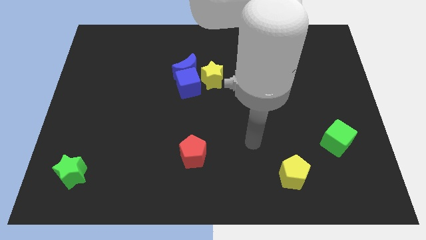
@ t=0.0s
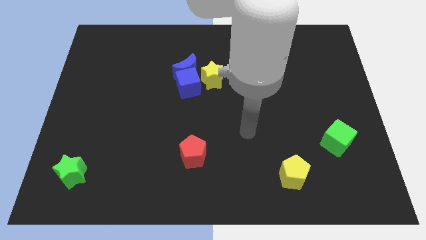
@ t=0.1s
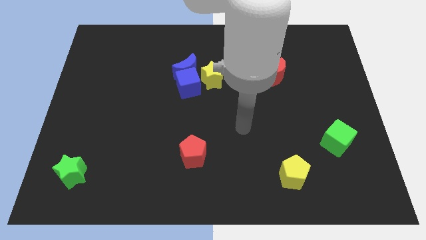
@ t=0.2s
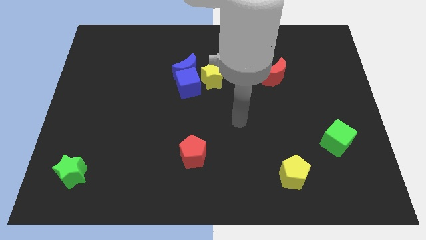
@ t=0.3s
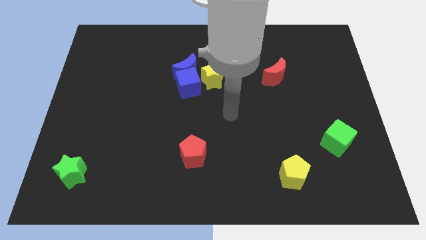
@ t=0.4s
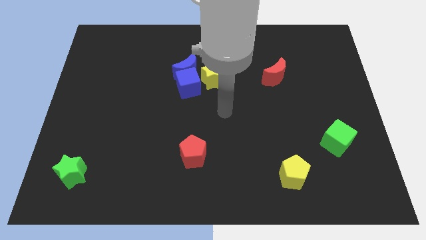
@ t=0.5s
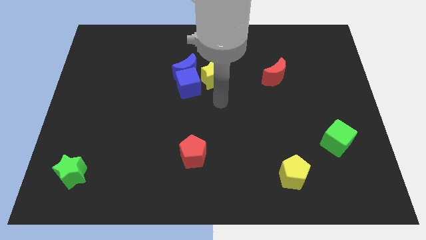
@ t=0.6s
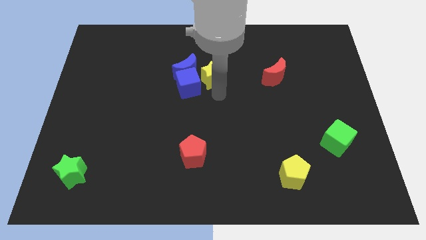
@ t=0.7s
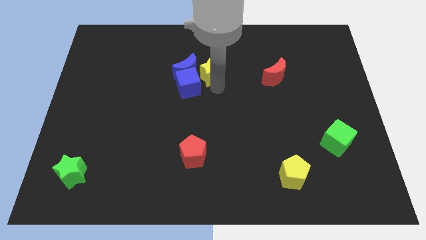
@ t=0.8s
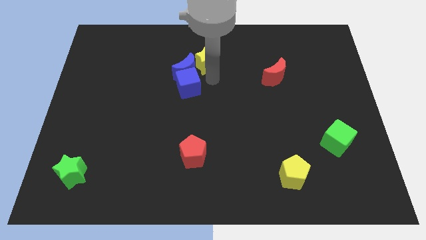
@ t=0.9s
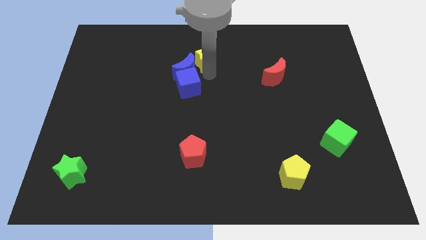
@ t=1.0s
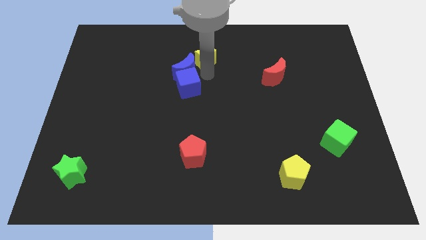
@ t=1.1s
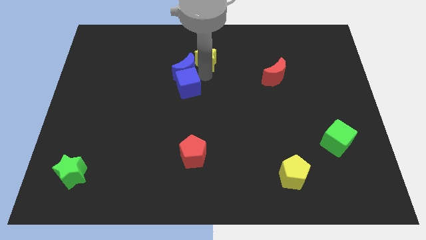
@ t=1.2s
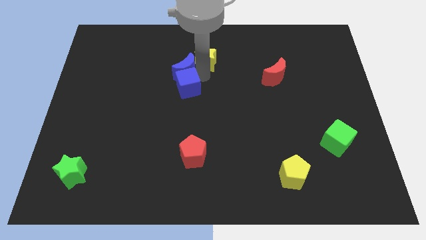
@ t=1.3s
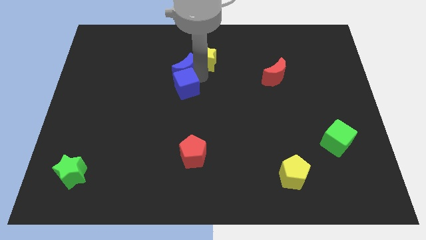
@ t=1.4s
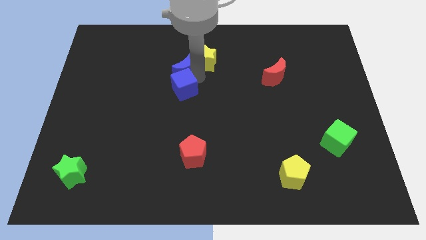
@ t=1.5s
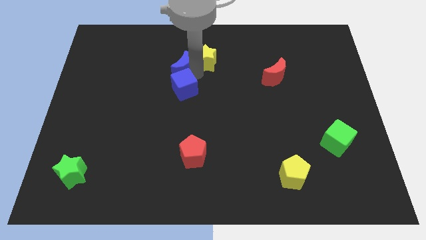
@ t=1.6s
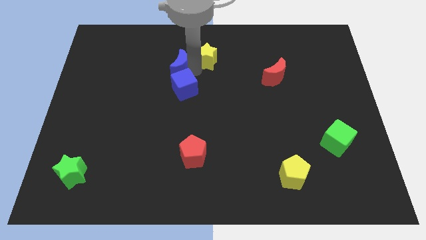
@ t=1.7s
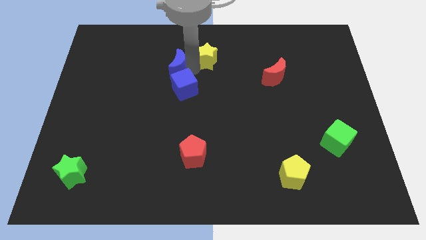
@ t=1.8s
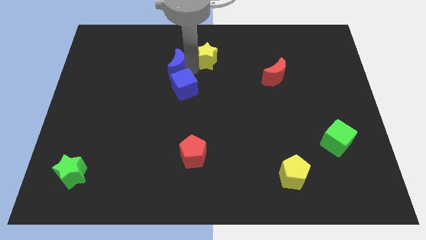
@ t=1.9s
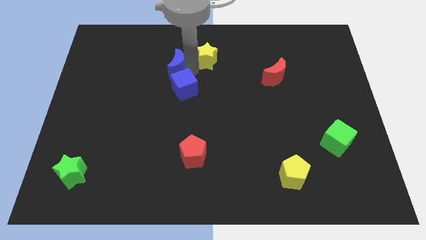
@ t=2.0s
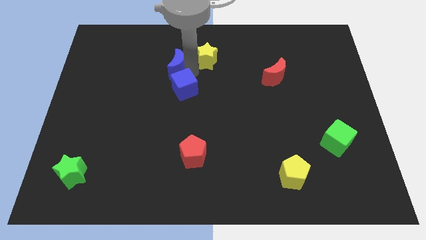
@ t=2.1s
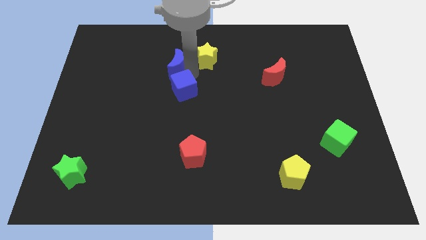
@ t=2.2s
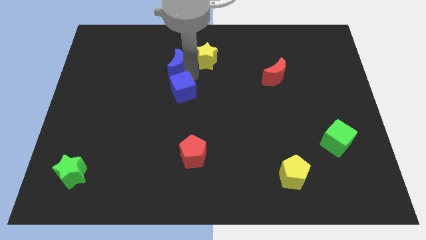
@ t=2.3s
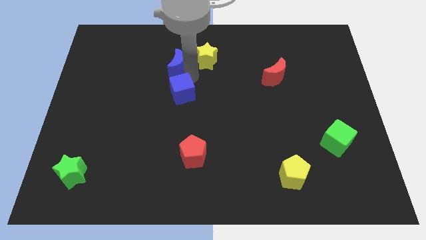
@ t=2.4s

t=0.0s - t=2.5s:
pull the blue cube apart from the blue moon and yellow star

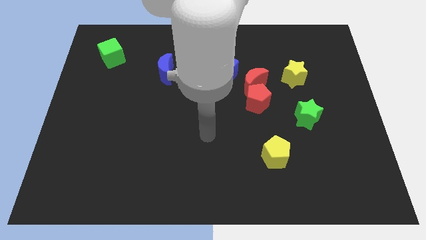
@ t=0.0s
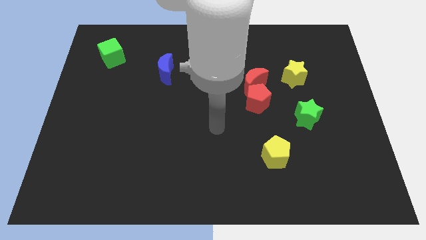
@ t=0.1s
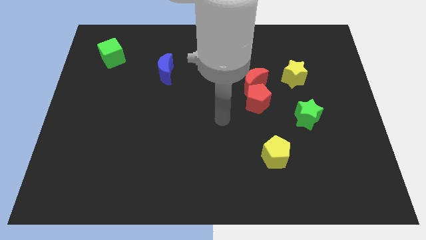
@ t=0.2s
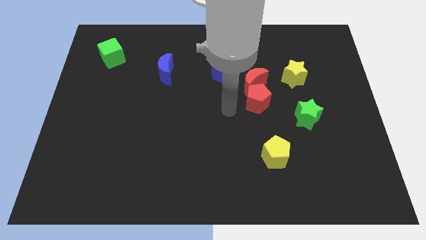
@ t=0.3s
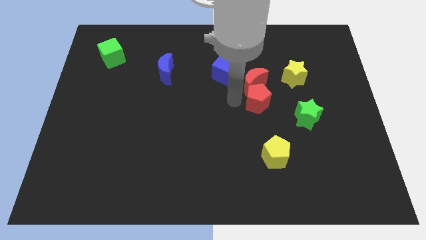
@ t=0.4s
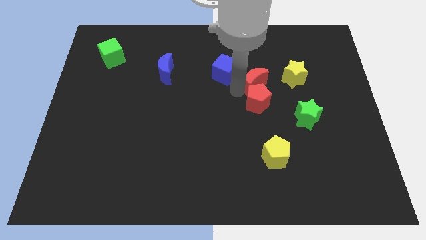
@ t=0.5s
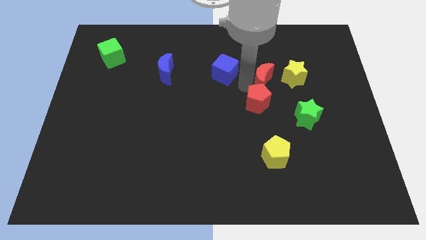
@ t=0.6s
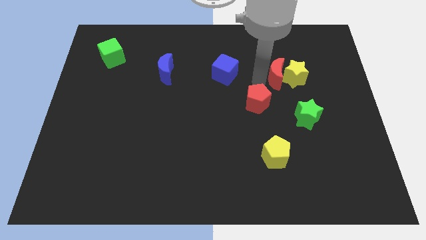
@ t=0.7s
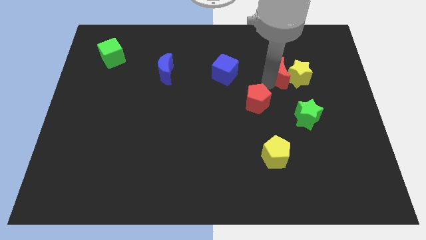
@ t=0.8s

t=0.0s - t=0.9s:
move the red pentagon away from the red moon

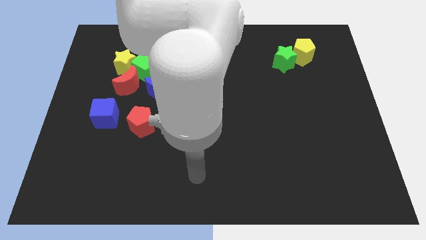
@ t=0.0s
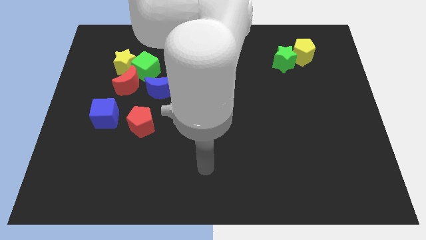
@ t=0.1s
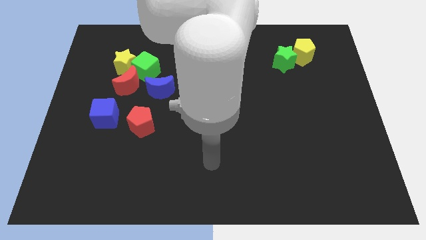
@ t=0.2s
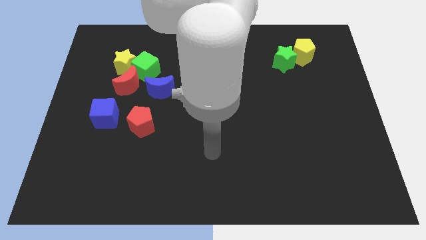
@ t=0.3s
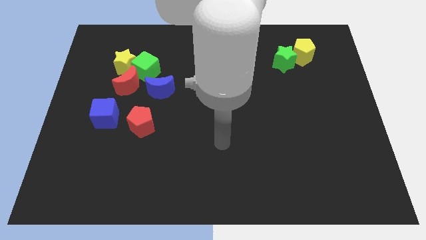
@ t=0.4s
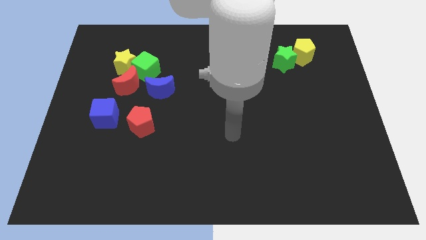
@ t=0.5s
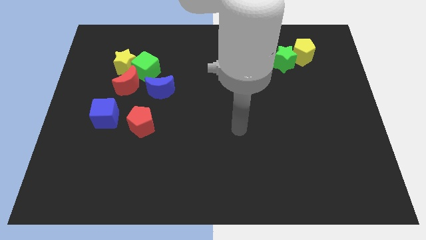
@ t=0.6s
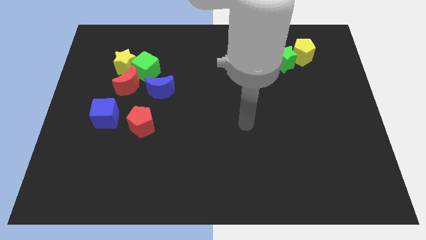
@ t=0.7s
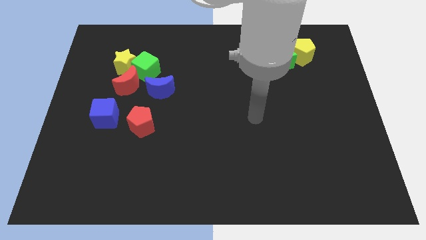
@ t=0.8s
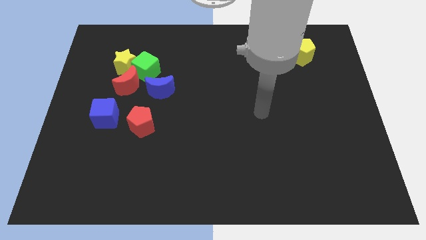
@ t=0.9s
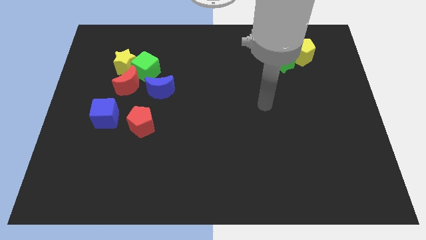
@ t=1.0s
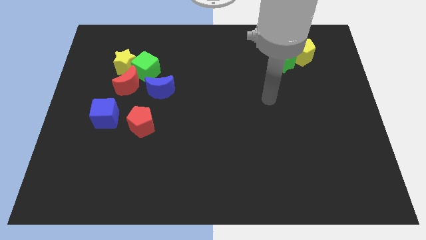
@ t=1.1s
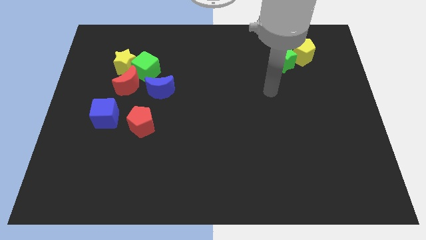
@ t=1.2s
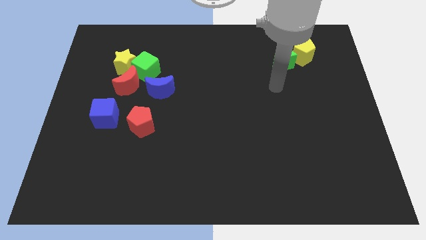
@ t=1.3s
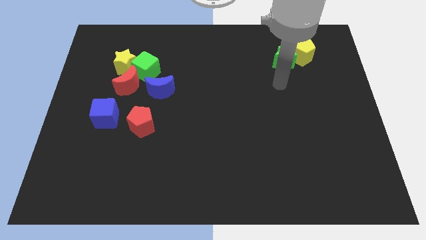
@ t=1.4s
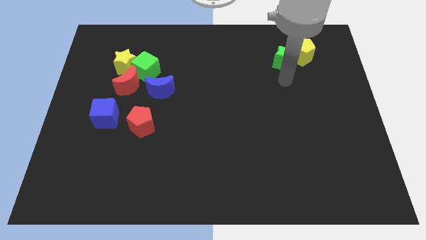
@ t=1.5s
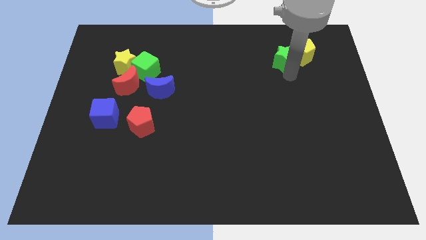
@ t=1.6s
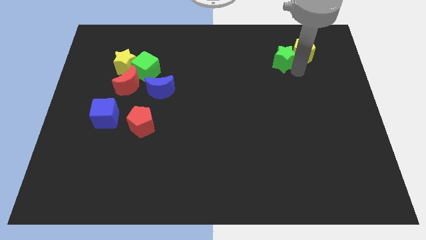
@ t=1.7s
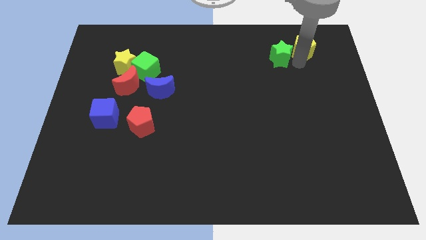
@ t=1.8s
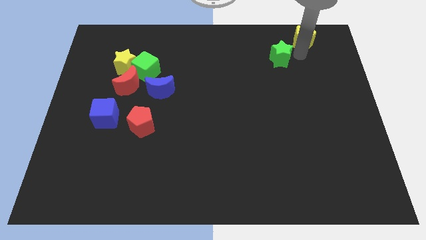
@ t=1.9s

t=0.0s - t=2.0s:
separate the green star from the yellow pentagon

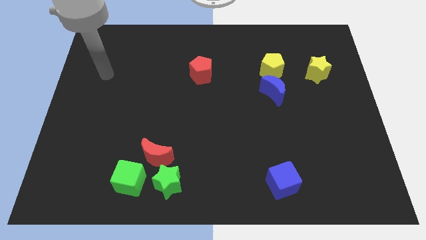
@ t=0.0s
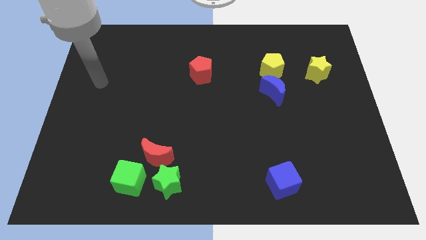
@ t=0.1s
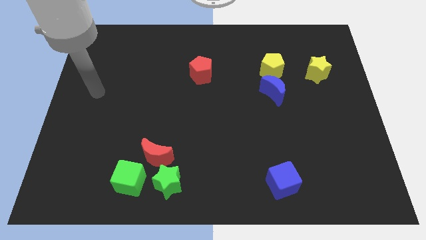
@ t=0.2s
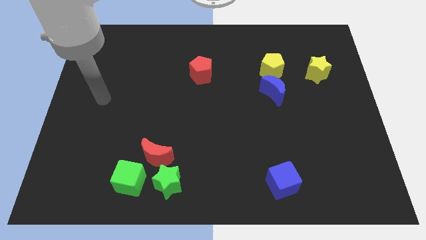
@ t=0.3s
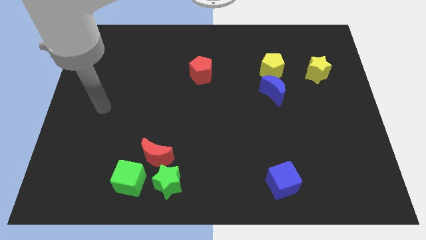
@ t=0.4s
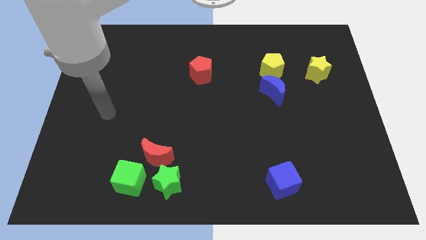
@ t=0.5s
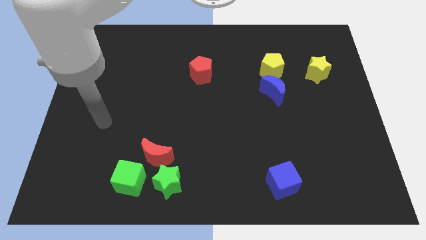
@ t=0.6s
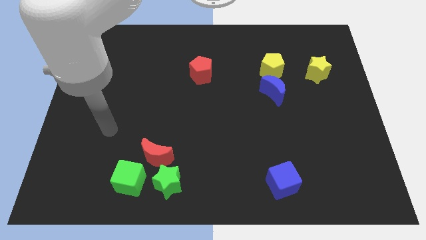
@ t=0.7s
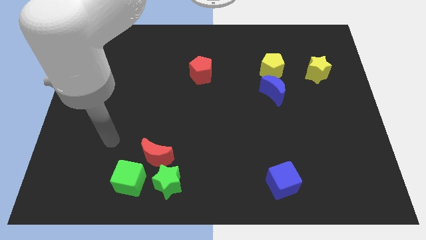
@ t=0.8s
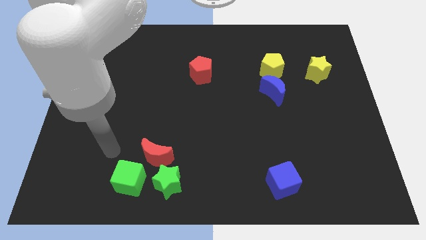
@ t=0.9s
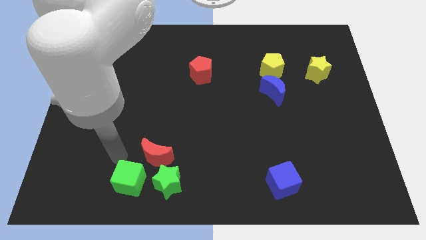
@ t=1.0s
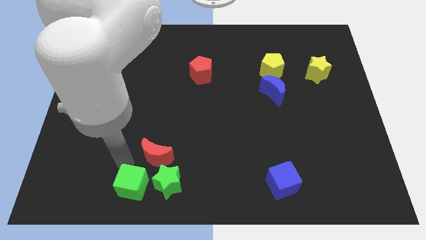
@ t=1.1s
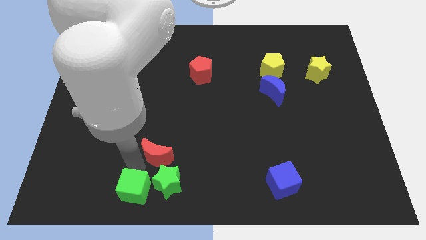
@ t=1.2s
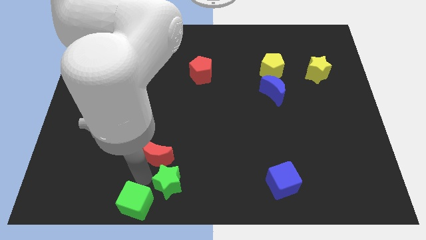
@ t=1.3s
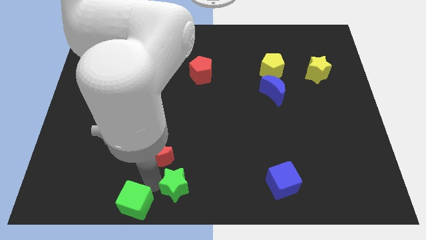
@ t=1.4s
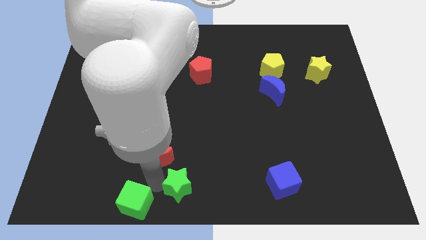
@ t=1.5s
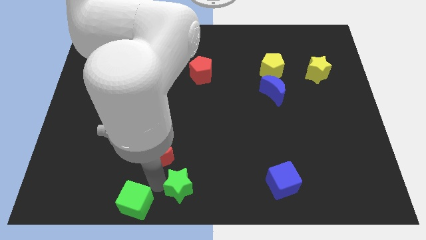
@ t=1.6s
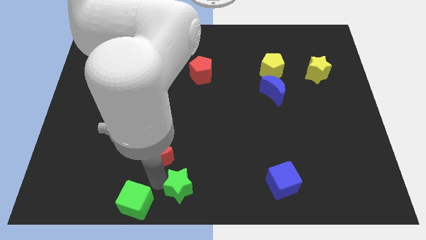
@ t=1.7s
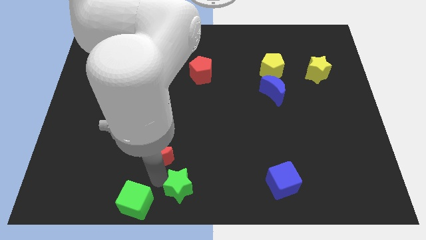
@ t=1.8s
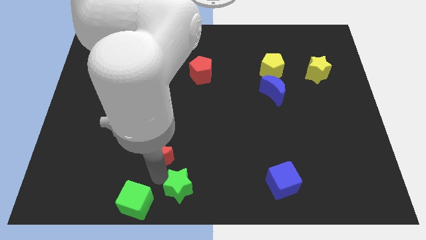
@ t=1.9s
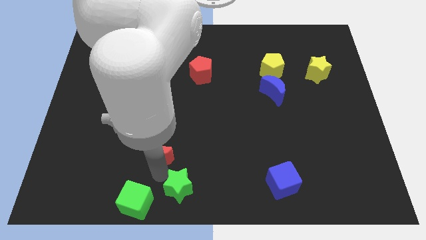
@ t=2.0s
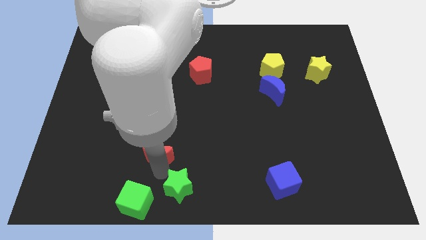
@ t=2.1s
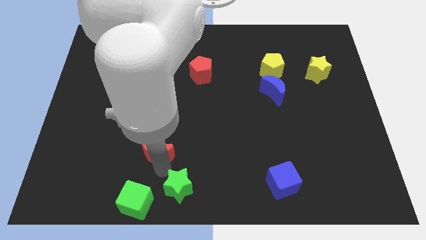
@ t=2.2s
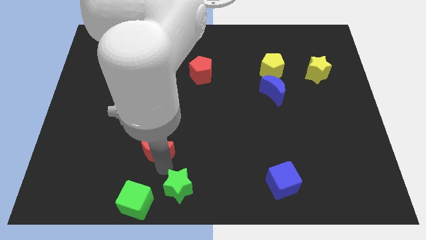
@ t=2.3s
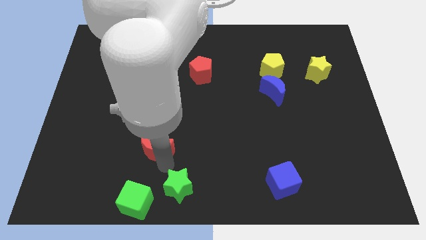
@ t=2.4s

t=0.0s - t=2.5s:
separate the red moon from the green star and green cube

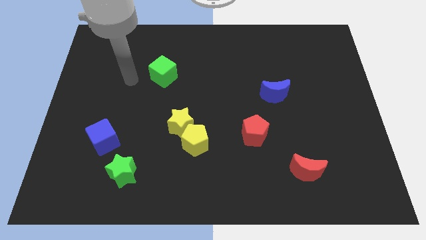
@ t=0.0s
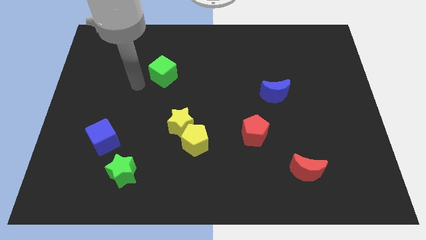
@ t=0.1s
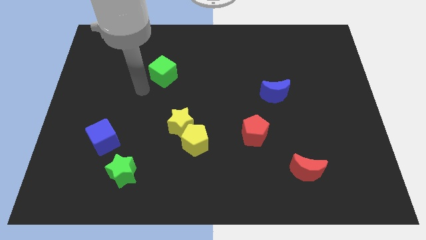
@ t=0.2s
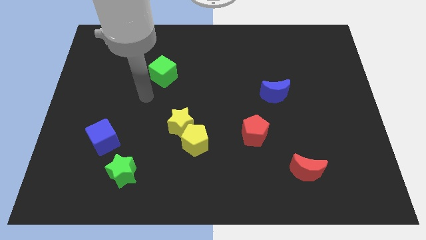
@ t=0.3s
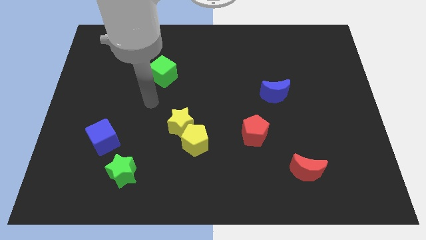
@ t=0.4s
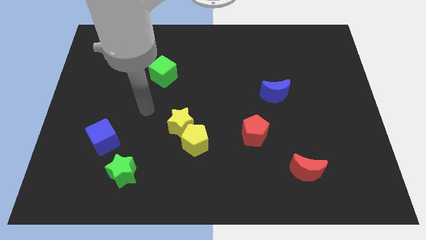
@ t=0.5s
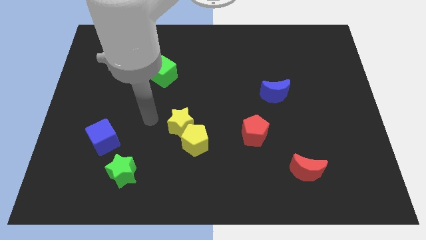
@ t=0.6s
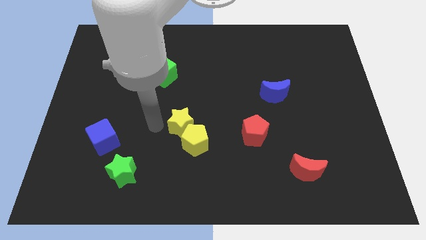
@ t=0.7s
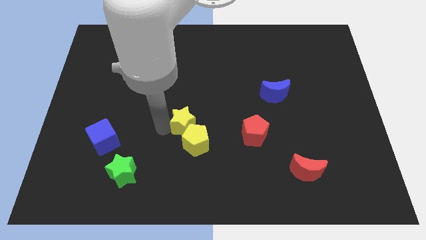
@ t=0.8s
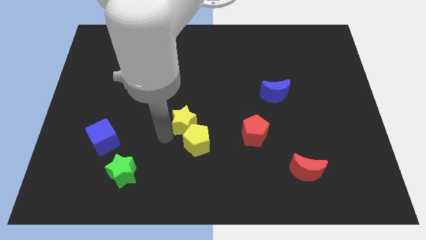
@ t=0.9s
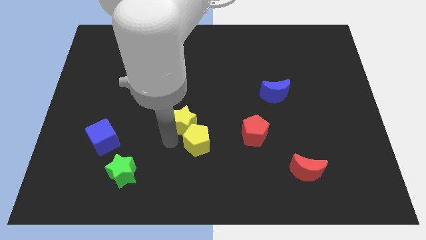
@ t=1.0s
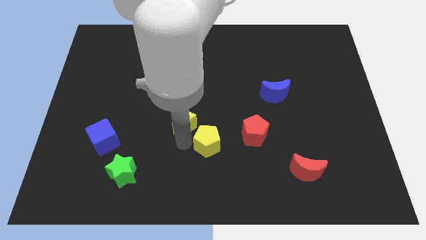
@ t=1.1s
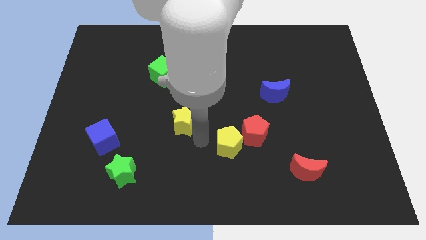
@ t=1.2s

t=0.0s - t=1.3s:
move the yellow star away from the yellow pentagon

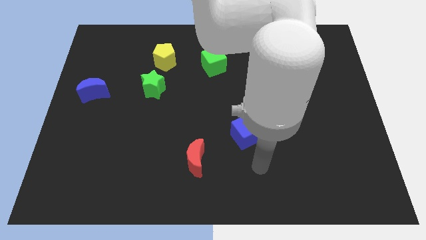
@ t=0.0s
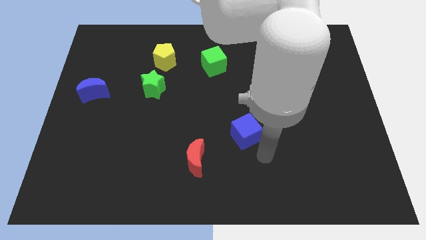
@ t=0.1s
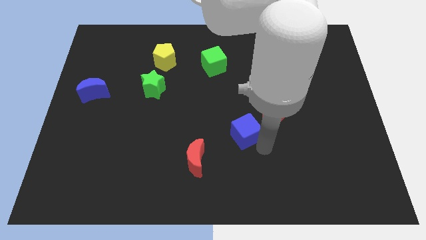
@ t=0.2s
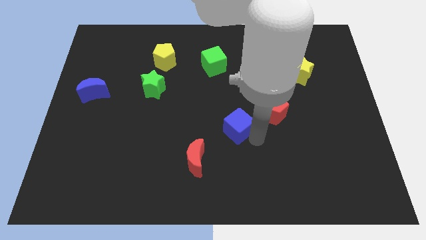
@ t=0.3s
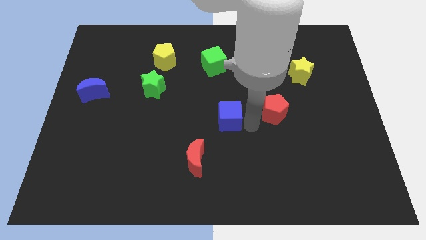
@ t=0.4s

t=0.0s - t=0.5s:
move the red pentagon away from the blue cube
